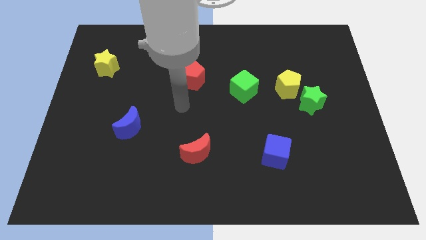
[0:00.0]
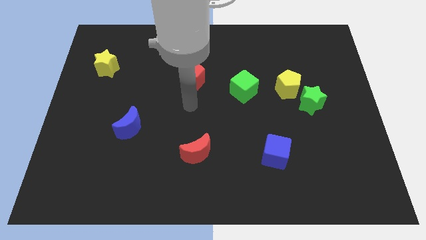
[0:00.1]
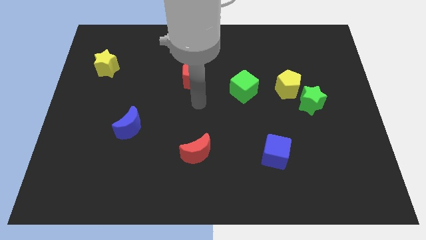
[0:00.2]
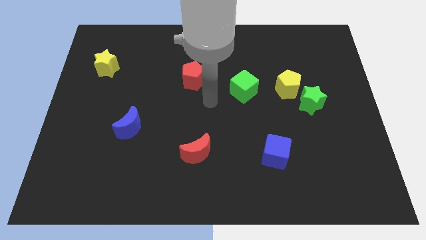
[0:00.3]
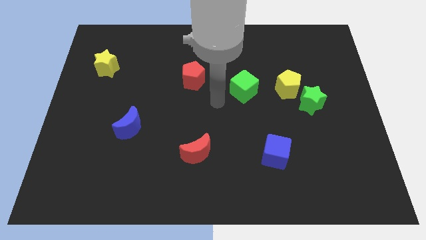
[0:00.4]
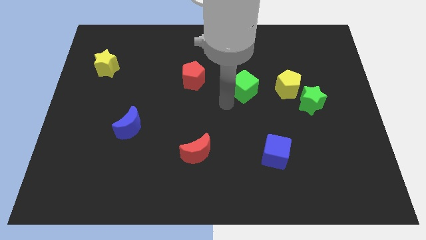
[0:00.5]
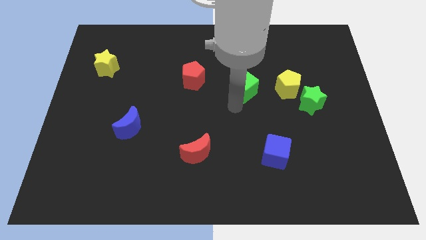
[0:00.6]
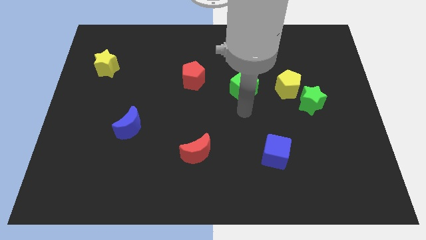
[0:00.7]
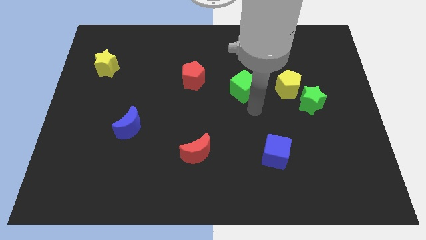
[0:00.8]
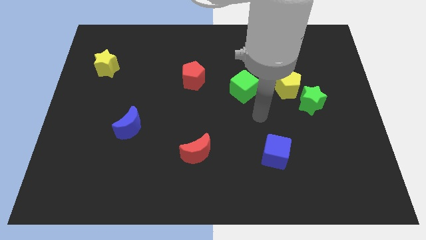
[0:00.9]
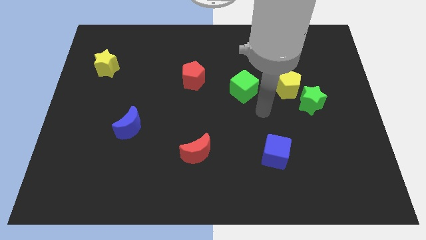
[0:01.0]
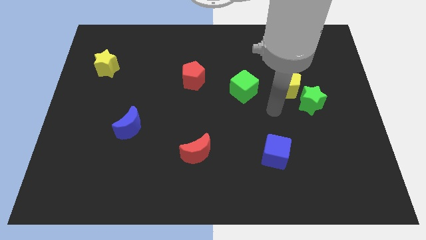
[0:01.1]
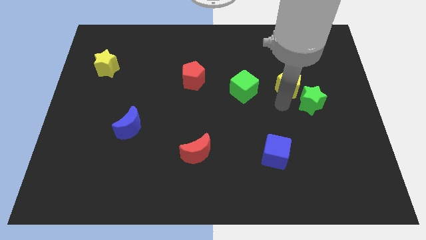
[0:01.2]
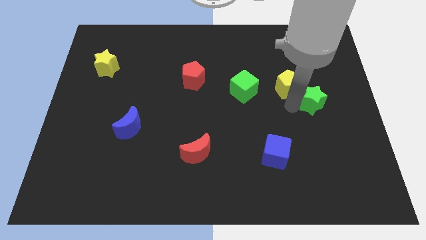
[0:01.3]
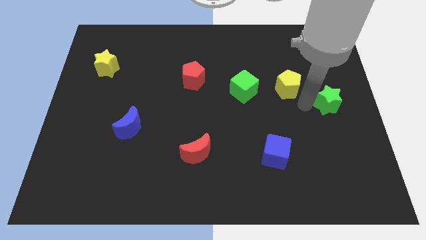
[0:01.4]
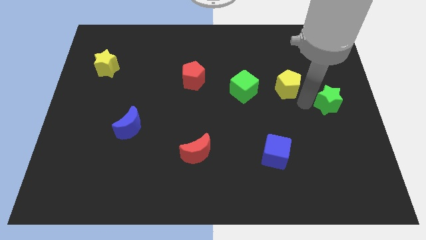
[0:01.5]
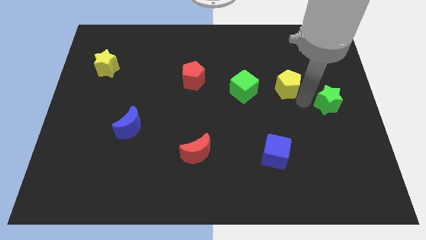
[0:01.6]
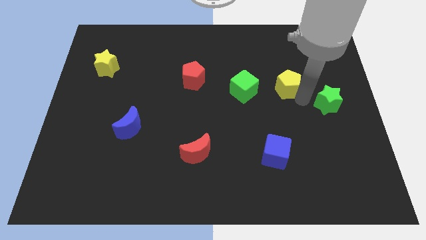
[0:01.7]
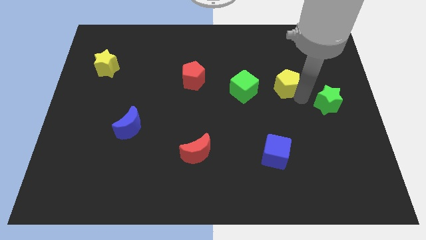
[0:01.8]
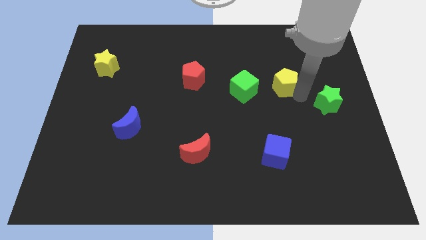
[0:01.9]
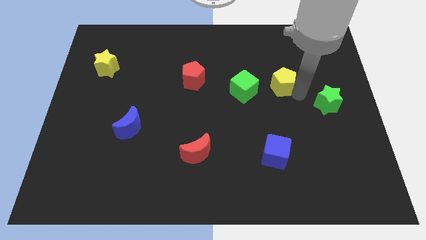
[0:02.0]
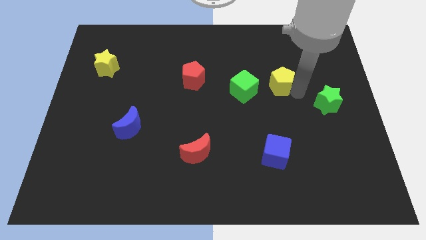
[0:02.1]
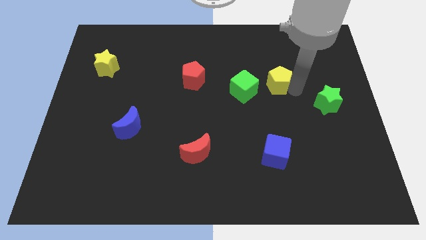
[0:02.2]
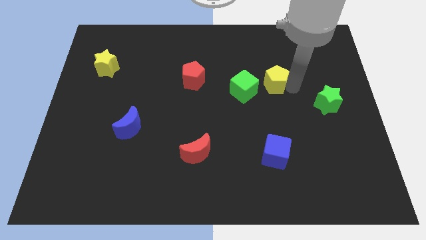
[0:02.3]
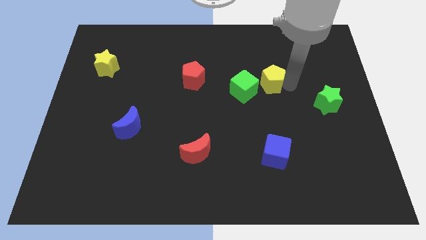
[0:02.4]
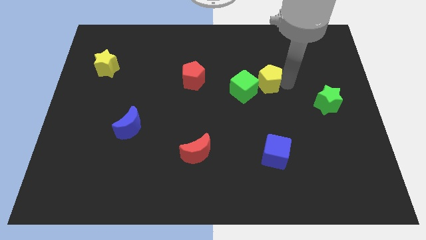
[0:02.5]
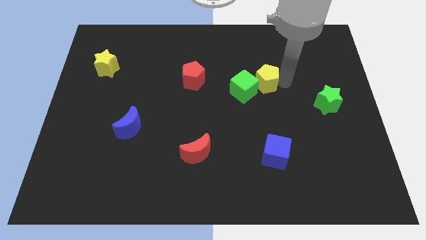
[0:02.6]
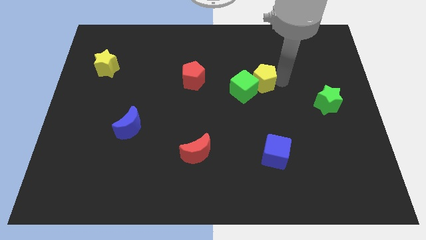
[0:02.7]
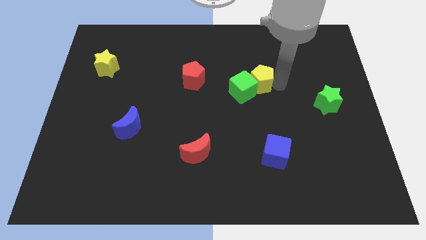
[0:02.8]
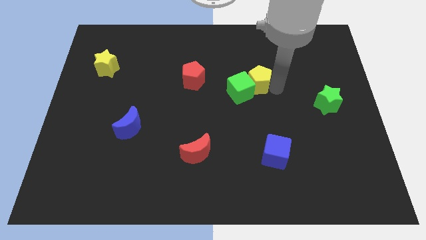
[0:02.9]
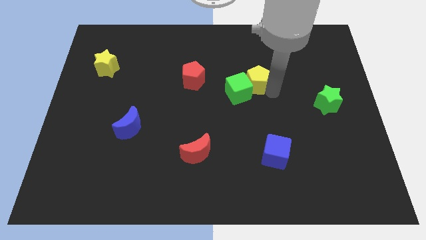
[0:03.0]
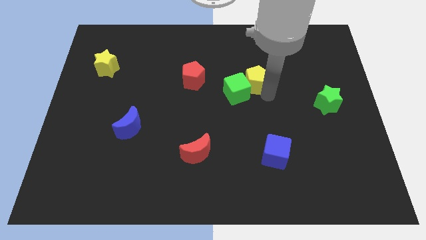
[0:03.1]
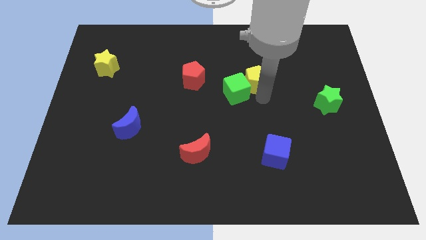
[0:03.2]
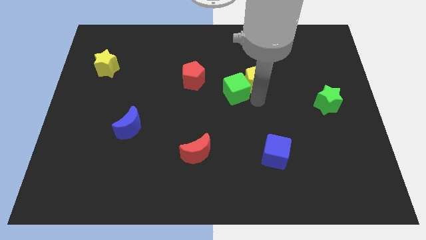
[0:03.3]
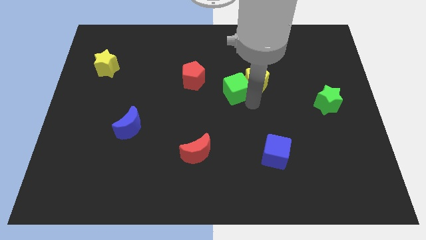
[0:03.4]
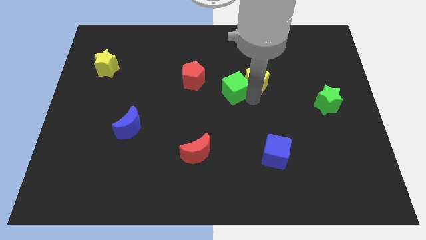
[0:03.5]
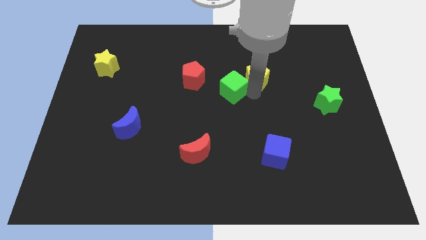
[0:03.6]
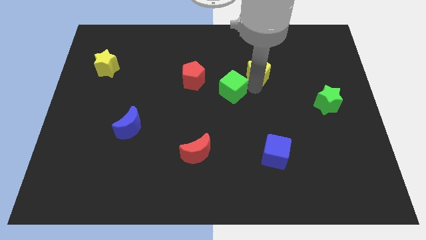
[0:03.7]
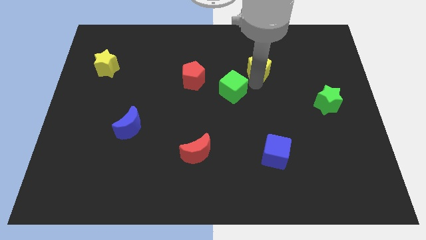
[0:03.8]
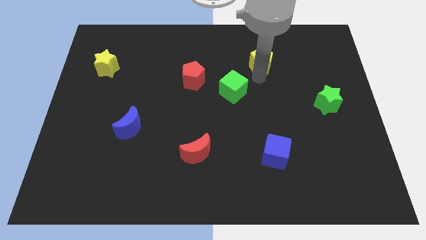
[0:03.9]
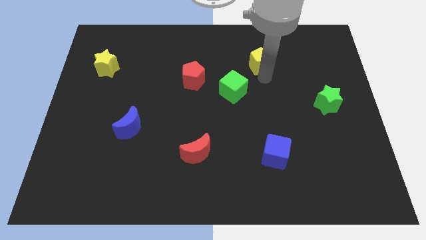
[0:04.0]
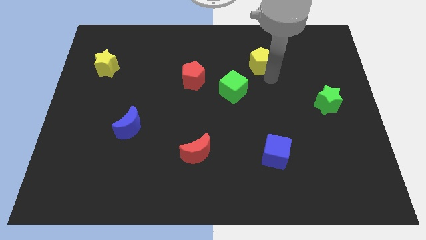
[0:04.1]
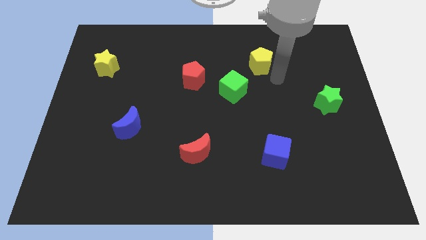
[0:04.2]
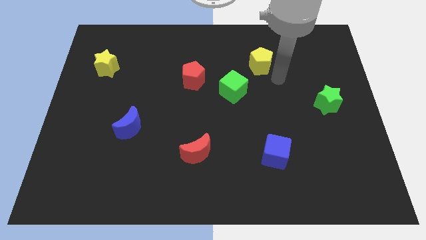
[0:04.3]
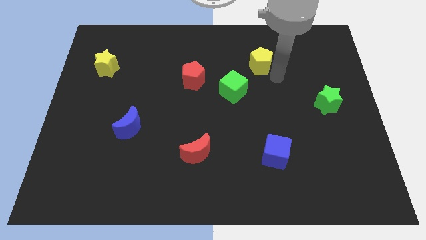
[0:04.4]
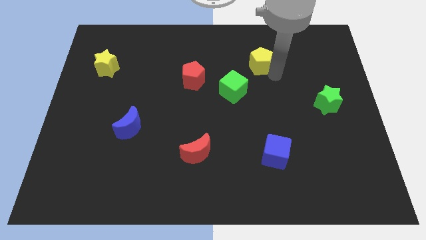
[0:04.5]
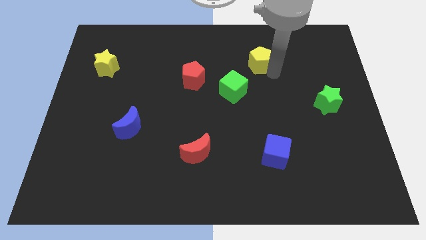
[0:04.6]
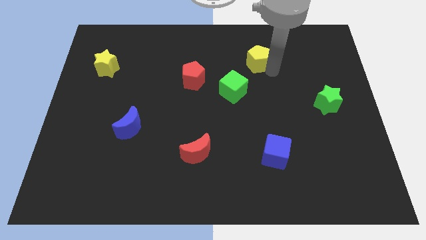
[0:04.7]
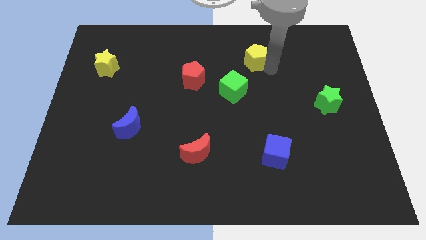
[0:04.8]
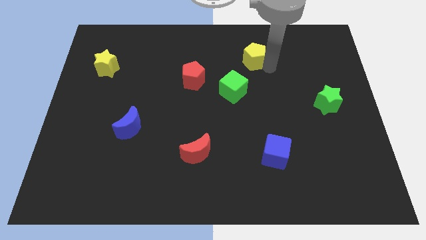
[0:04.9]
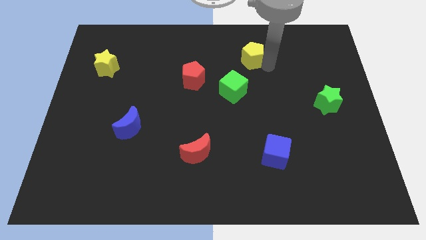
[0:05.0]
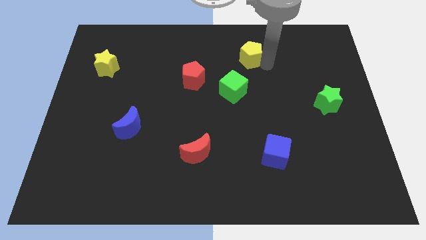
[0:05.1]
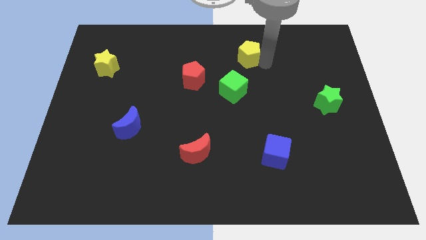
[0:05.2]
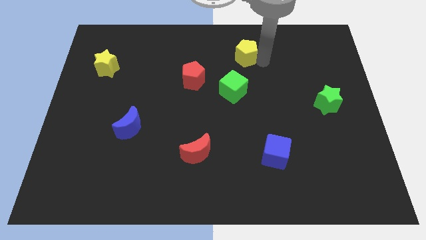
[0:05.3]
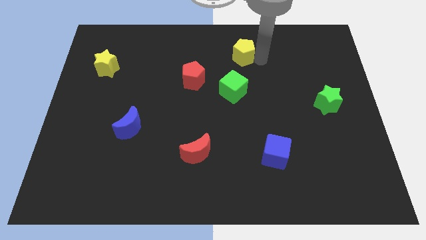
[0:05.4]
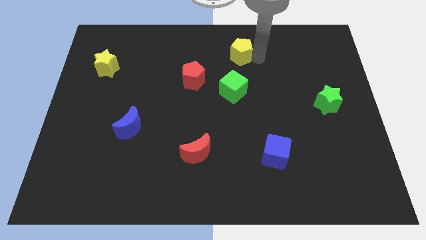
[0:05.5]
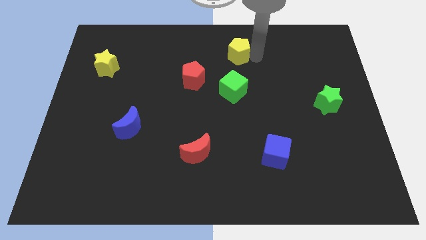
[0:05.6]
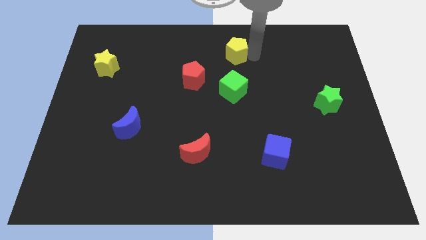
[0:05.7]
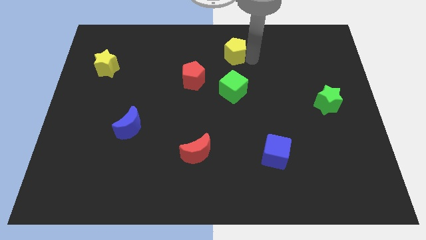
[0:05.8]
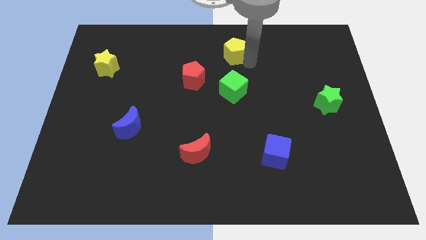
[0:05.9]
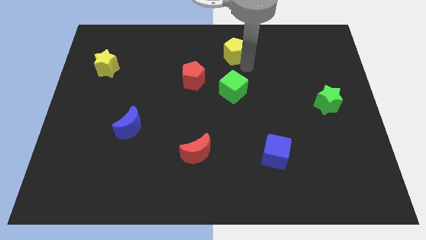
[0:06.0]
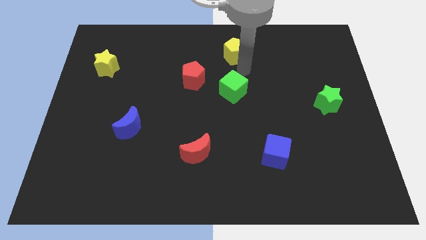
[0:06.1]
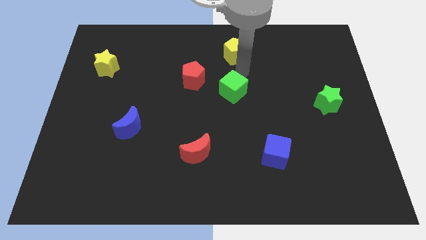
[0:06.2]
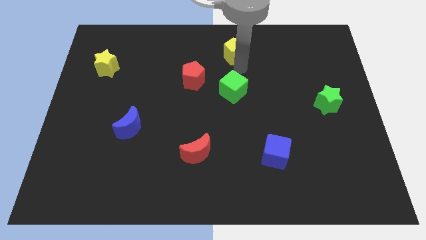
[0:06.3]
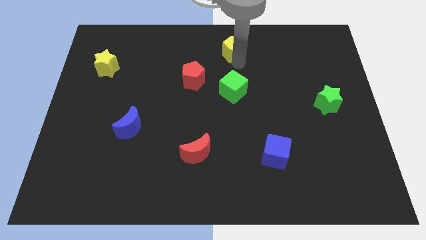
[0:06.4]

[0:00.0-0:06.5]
push the yellow pentagon to the top

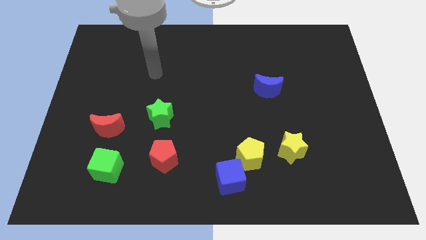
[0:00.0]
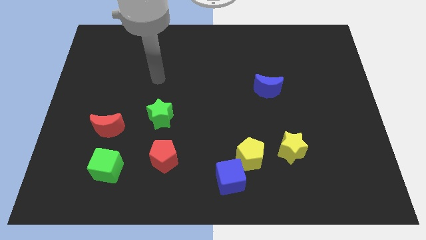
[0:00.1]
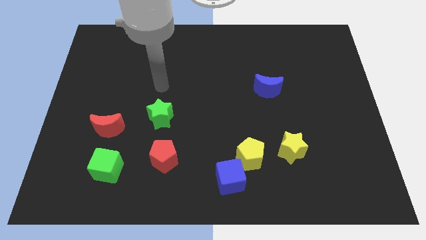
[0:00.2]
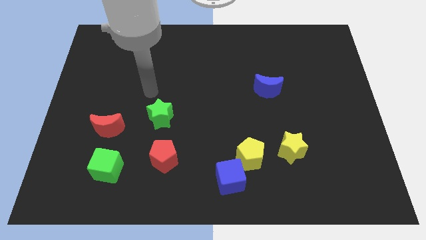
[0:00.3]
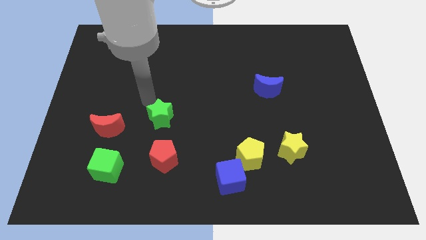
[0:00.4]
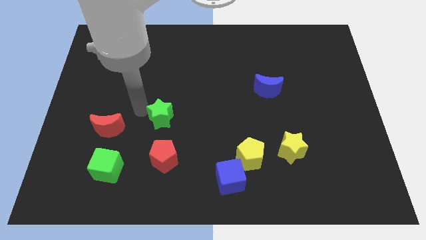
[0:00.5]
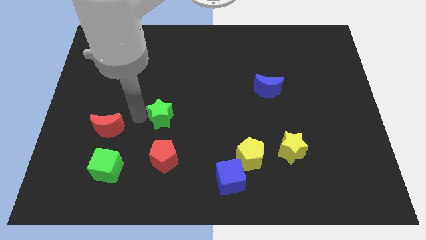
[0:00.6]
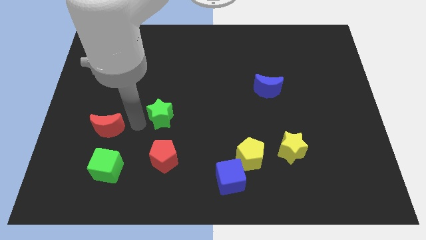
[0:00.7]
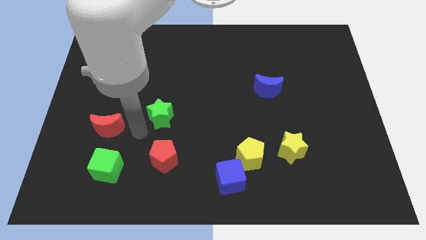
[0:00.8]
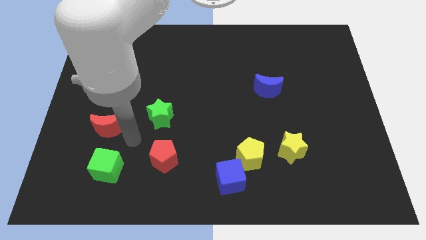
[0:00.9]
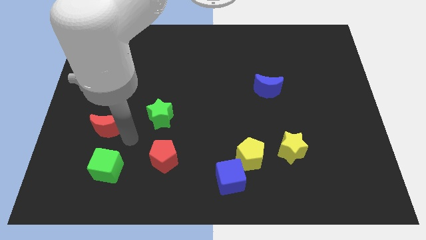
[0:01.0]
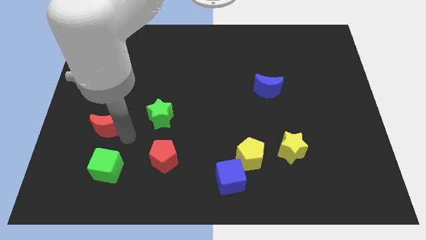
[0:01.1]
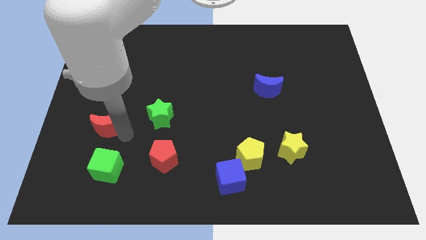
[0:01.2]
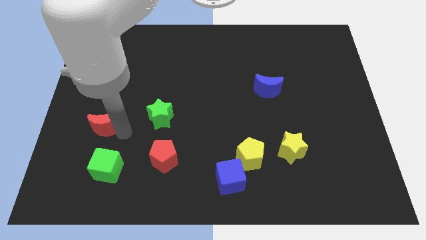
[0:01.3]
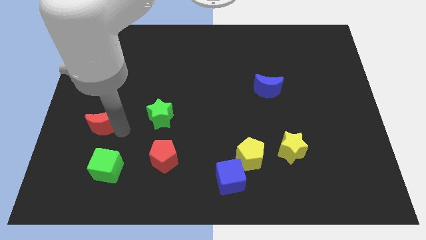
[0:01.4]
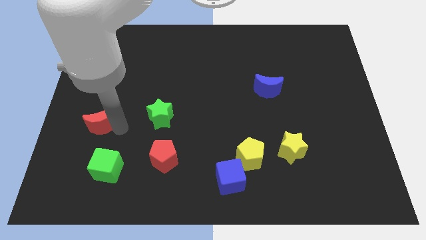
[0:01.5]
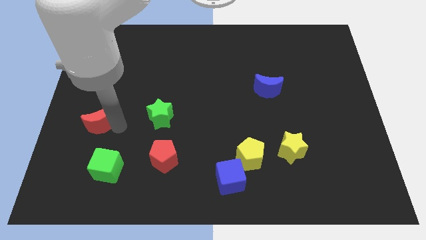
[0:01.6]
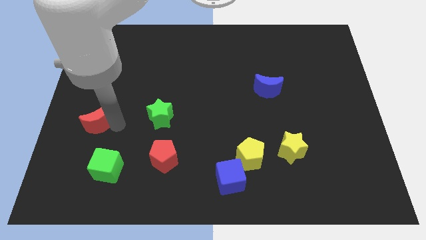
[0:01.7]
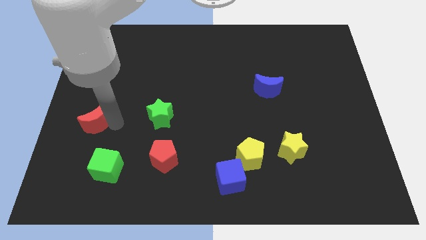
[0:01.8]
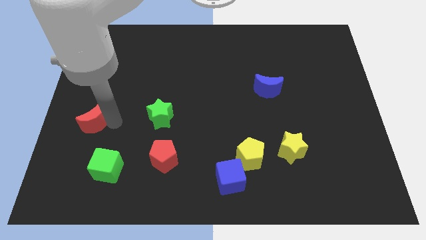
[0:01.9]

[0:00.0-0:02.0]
push the red moon to the left side
